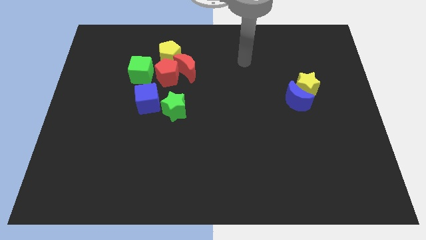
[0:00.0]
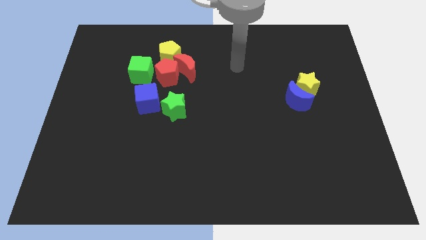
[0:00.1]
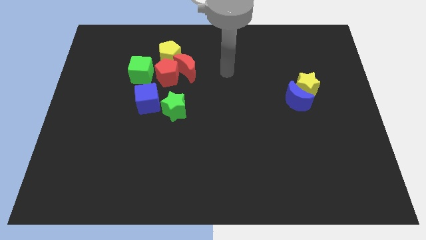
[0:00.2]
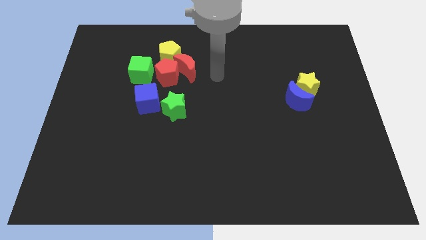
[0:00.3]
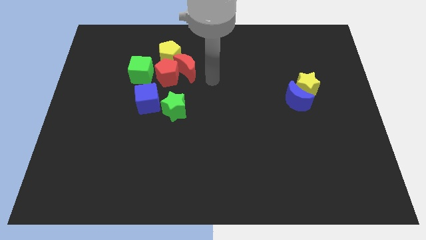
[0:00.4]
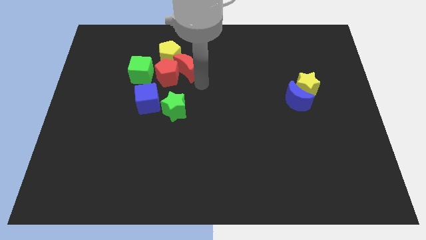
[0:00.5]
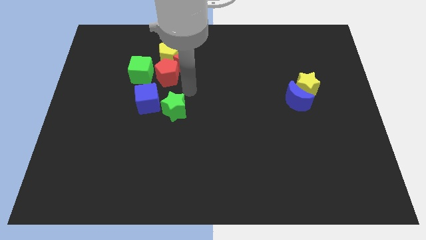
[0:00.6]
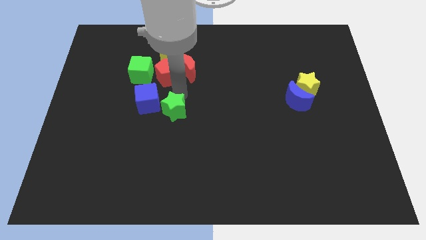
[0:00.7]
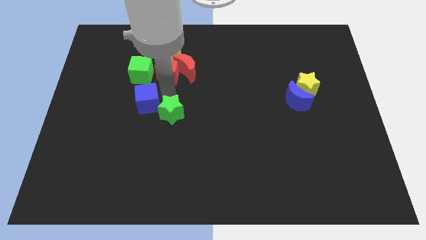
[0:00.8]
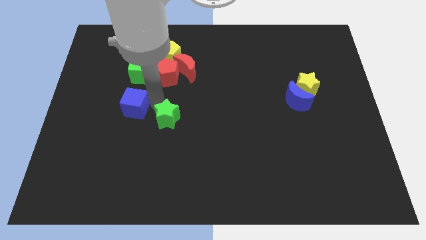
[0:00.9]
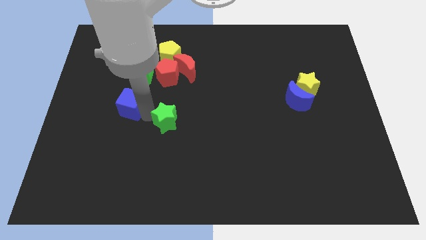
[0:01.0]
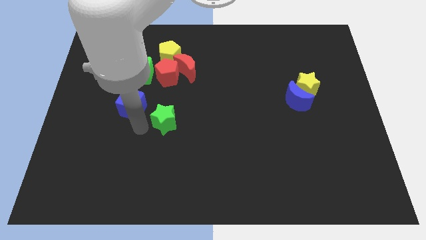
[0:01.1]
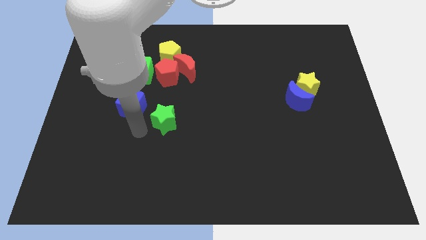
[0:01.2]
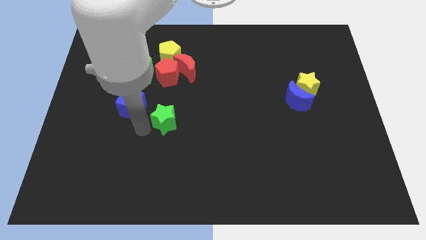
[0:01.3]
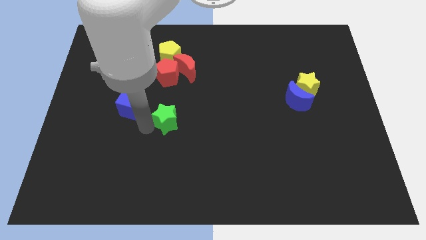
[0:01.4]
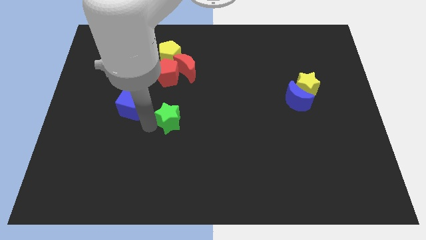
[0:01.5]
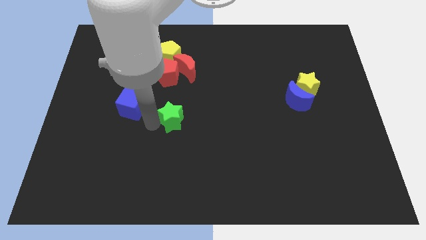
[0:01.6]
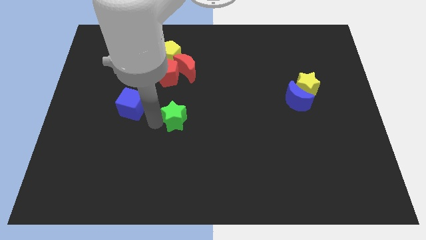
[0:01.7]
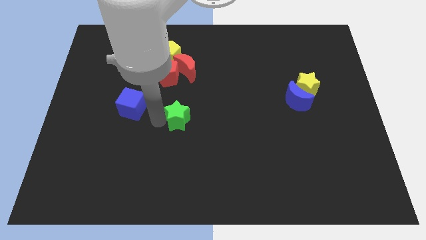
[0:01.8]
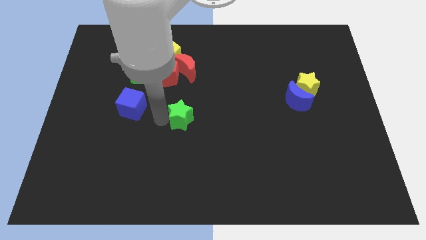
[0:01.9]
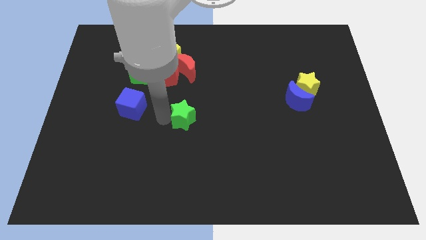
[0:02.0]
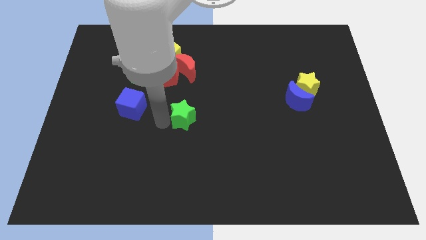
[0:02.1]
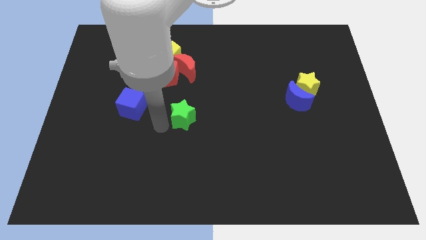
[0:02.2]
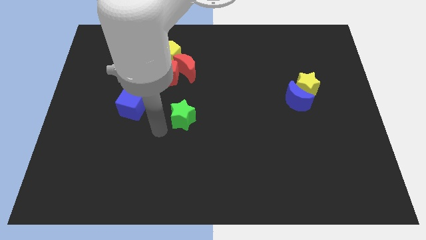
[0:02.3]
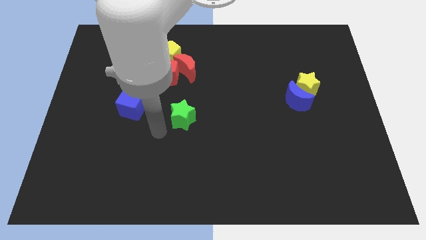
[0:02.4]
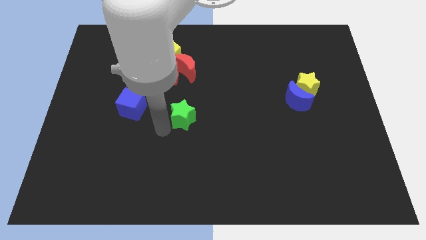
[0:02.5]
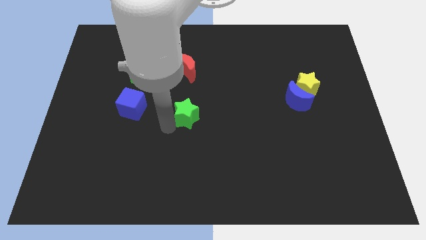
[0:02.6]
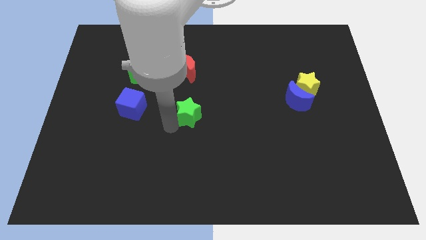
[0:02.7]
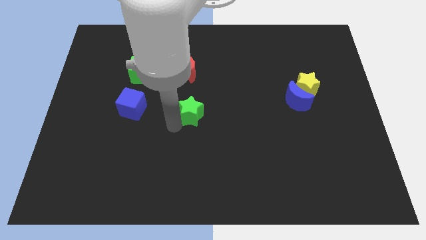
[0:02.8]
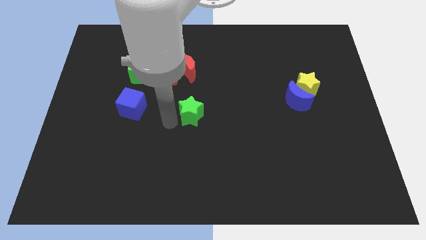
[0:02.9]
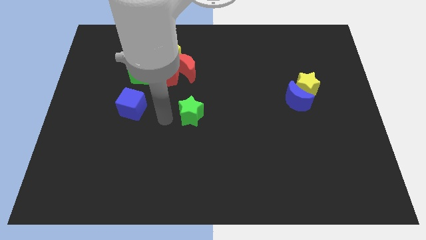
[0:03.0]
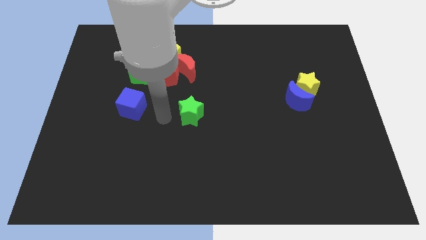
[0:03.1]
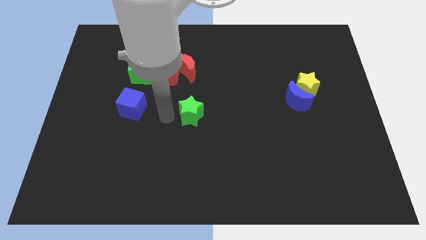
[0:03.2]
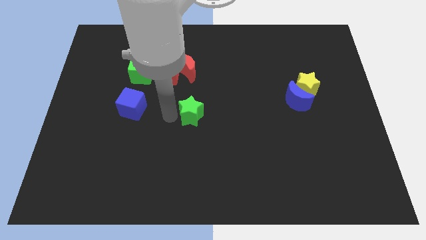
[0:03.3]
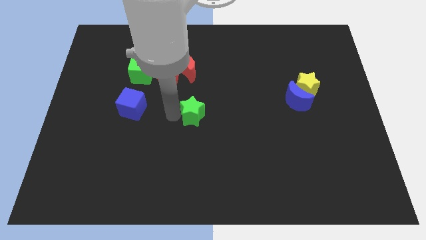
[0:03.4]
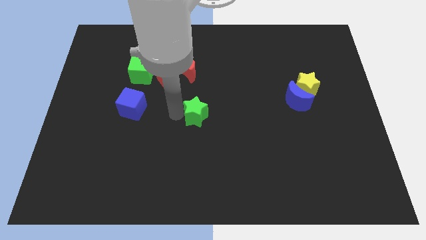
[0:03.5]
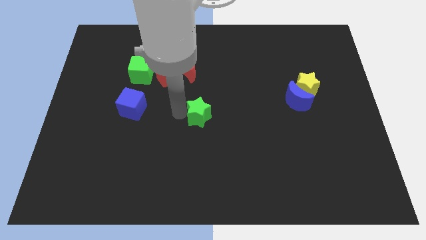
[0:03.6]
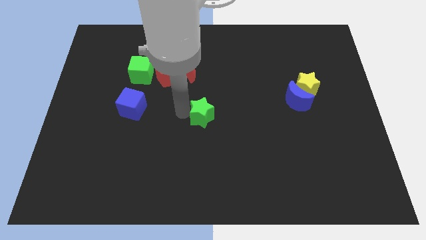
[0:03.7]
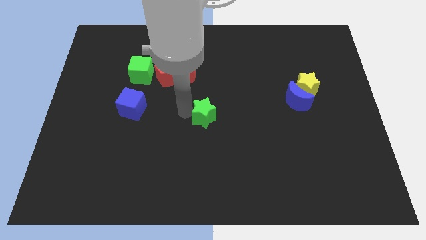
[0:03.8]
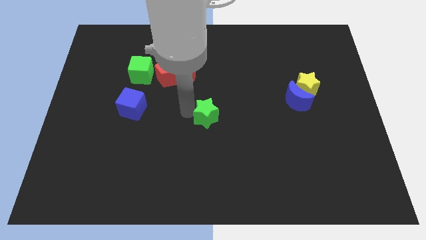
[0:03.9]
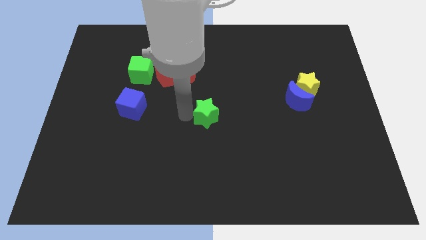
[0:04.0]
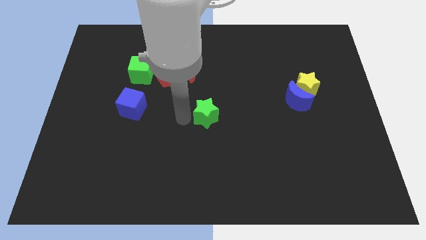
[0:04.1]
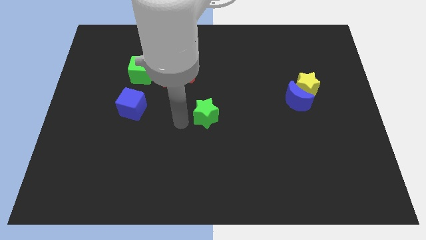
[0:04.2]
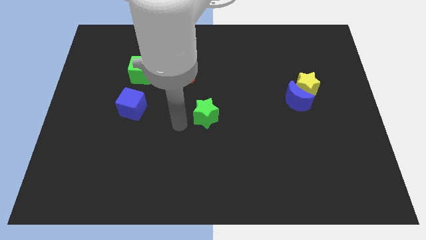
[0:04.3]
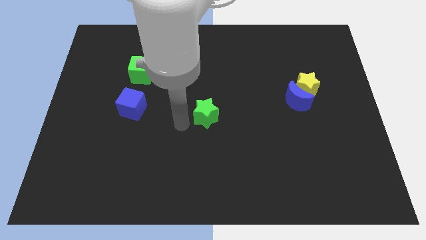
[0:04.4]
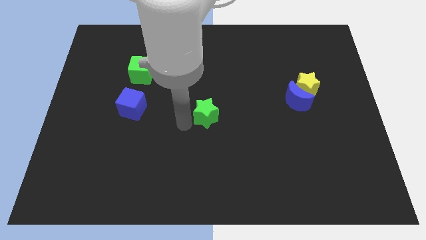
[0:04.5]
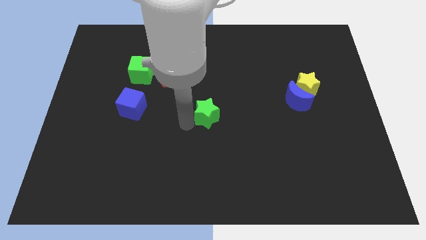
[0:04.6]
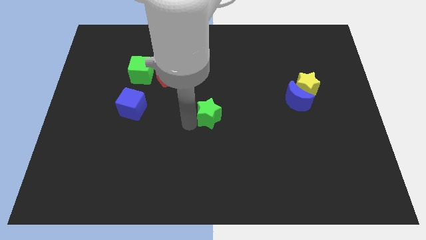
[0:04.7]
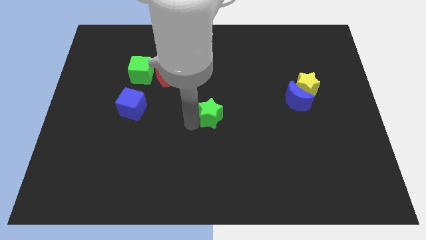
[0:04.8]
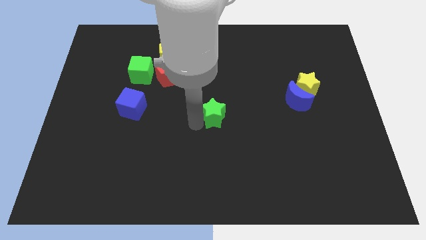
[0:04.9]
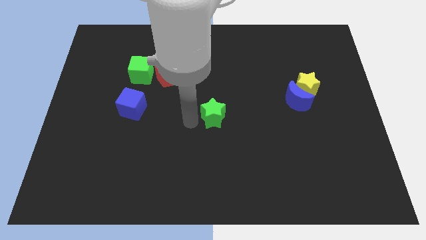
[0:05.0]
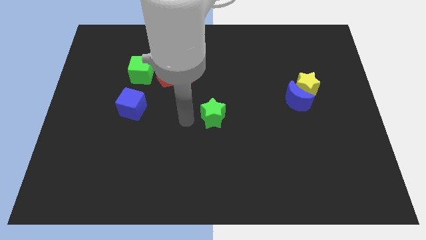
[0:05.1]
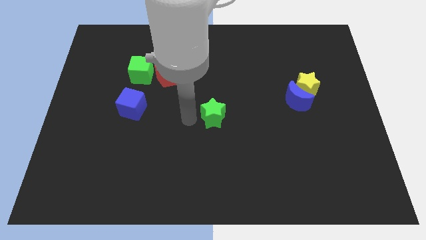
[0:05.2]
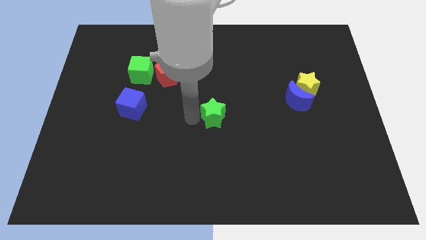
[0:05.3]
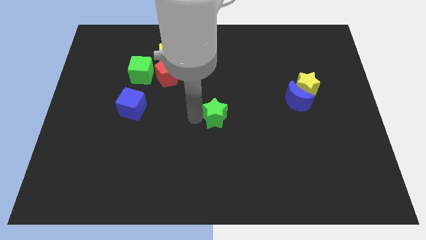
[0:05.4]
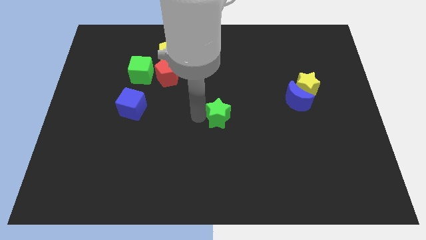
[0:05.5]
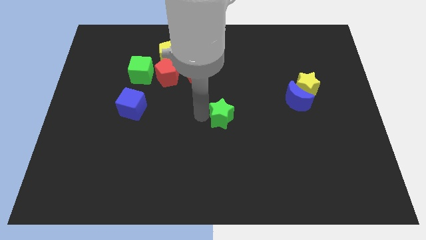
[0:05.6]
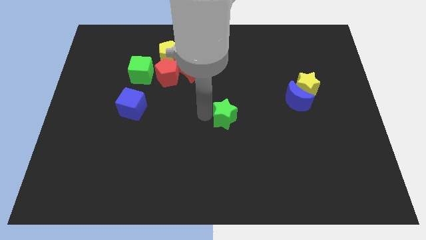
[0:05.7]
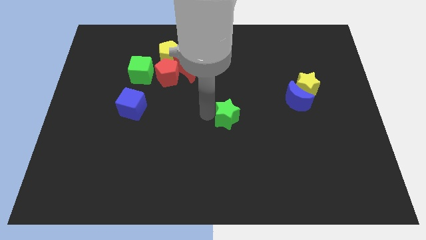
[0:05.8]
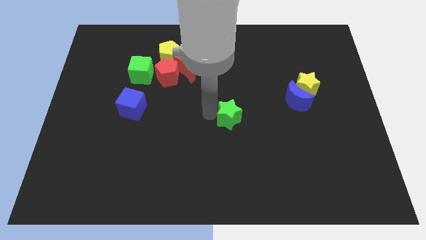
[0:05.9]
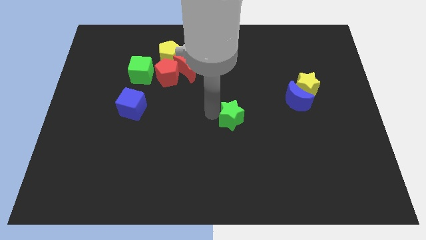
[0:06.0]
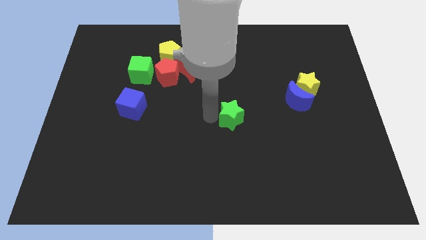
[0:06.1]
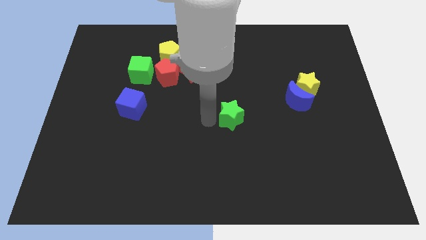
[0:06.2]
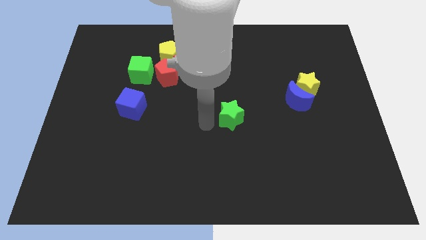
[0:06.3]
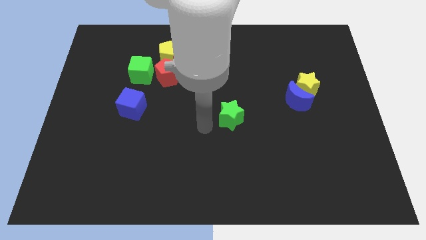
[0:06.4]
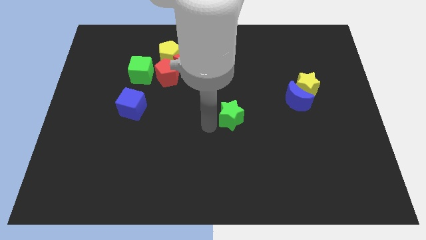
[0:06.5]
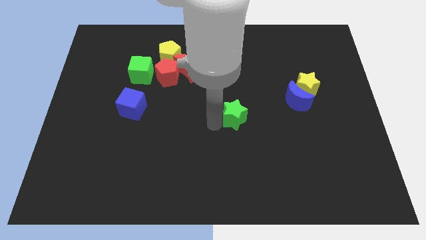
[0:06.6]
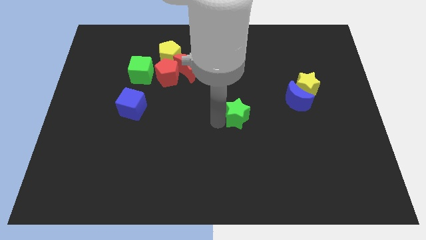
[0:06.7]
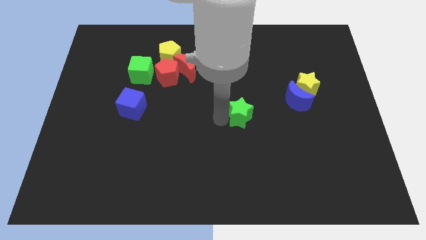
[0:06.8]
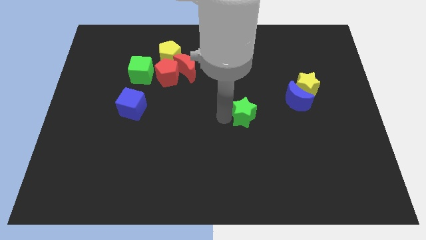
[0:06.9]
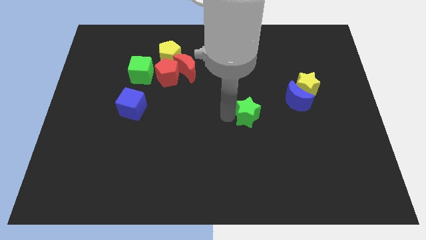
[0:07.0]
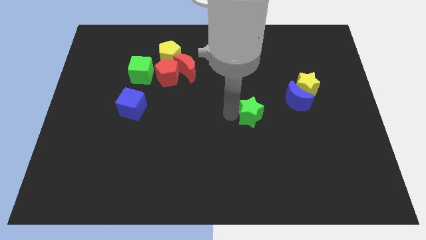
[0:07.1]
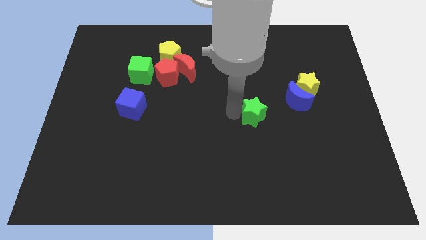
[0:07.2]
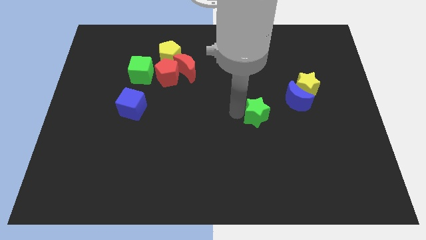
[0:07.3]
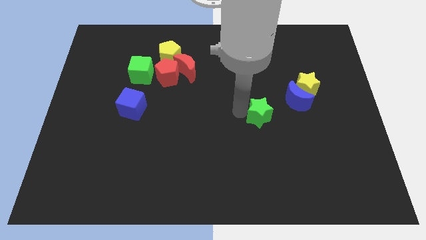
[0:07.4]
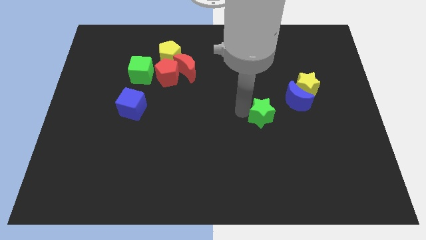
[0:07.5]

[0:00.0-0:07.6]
move the green star to the right

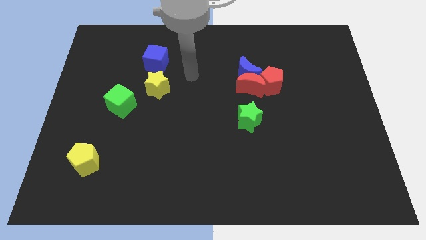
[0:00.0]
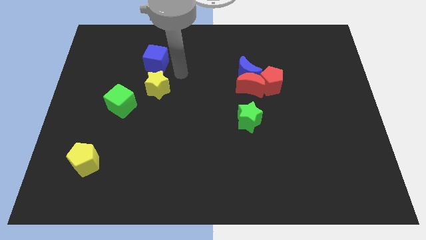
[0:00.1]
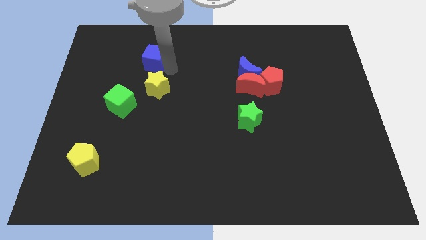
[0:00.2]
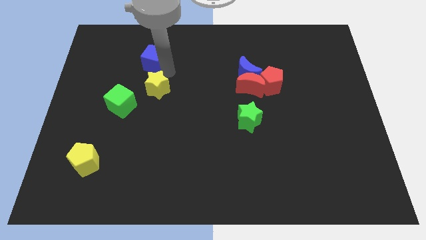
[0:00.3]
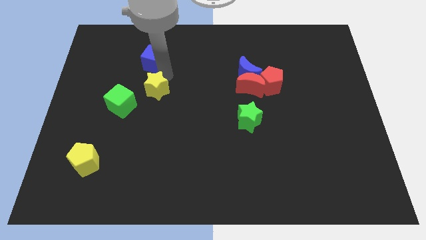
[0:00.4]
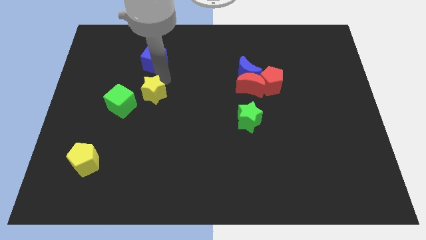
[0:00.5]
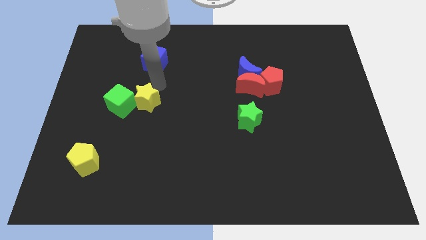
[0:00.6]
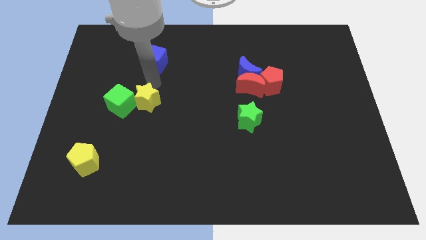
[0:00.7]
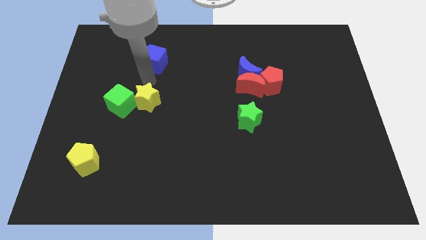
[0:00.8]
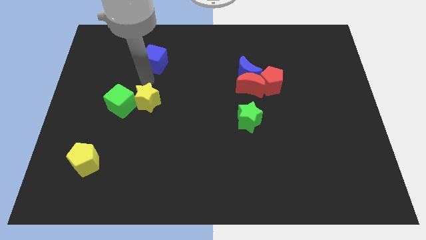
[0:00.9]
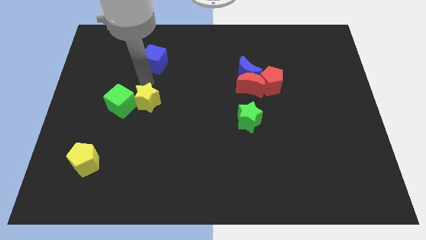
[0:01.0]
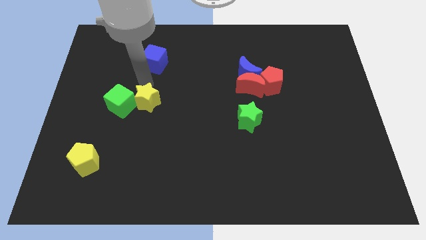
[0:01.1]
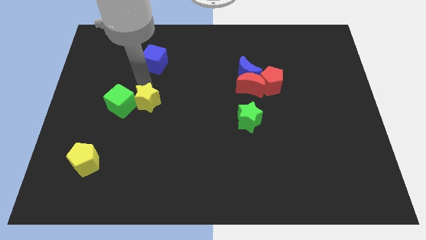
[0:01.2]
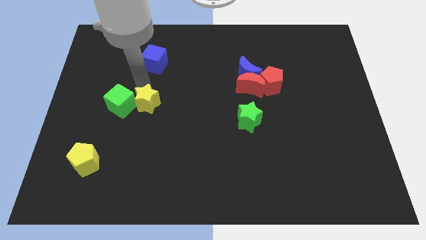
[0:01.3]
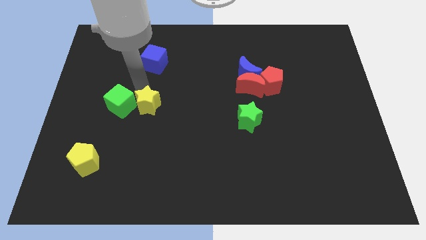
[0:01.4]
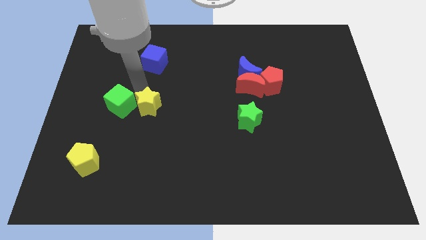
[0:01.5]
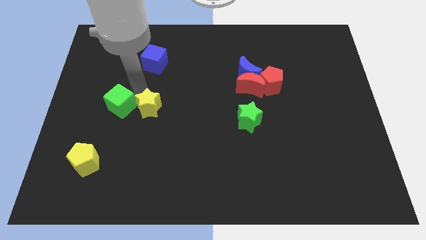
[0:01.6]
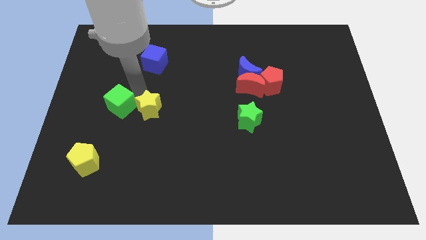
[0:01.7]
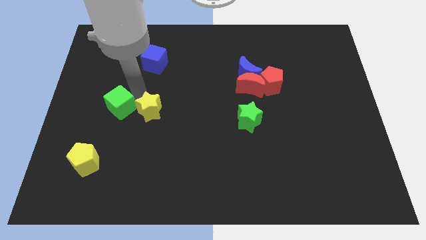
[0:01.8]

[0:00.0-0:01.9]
slightly move the yellow star downwards
